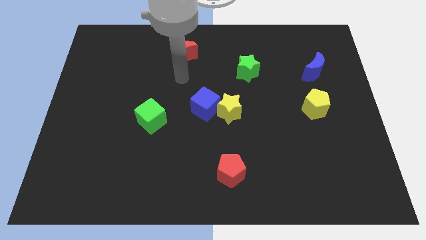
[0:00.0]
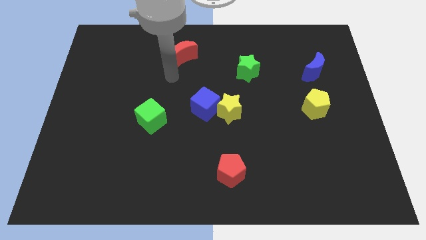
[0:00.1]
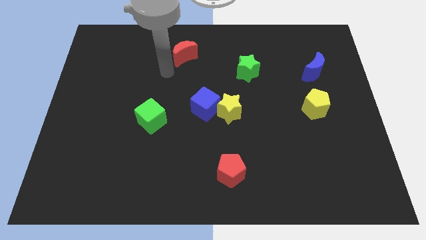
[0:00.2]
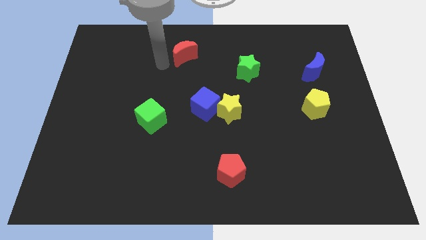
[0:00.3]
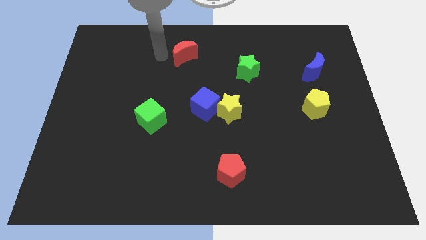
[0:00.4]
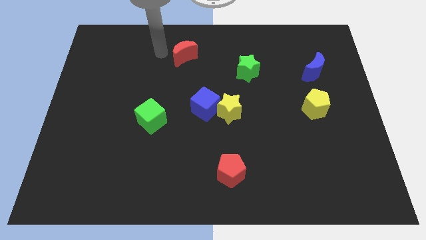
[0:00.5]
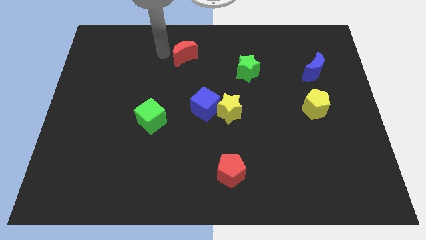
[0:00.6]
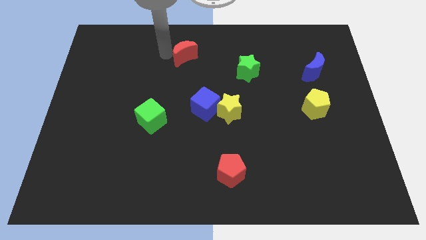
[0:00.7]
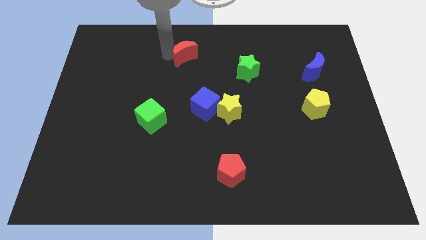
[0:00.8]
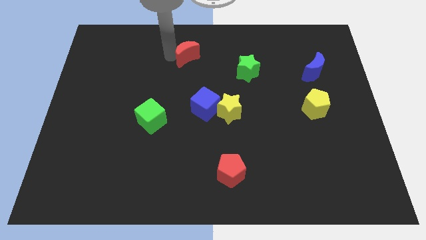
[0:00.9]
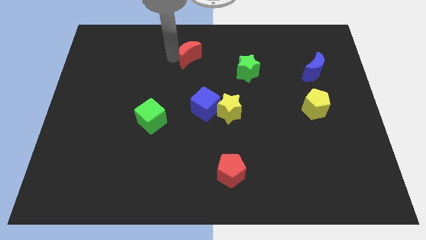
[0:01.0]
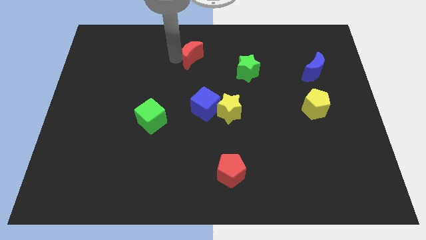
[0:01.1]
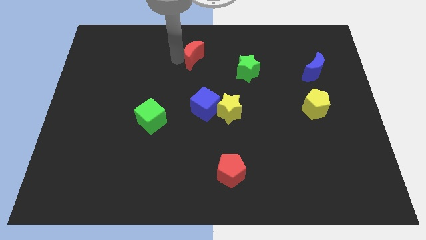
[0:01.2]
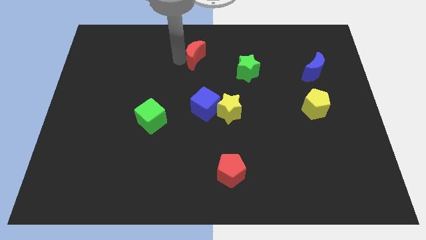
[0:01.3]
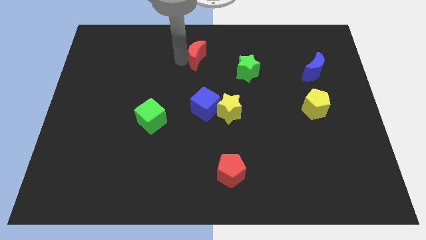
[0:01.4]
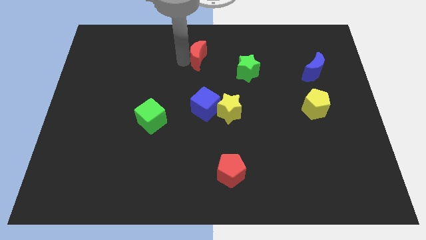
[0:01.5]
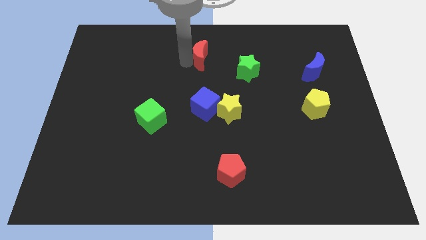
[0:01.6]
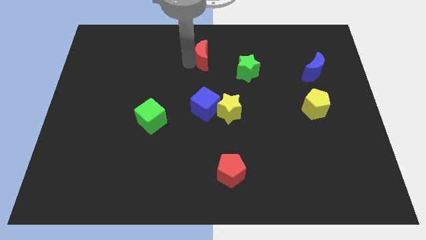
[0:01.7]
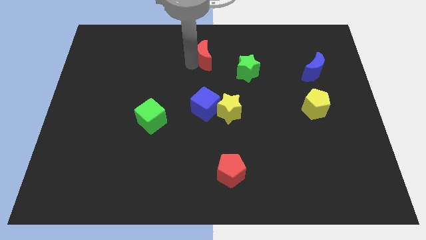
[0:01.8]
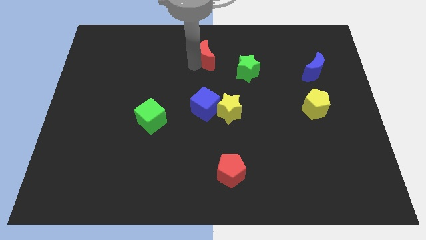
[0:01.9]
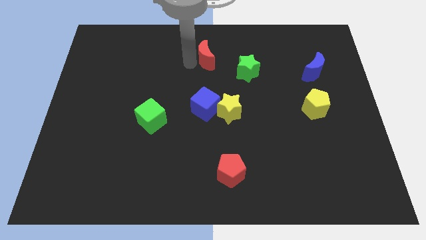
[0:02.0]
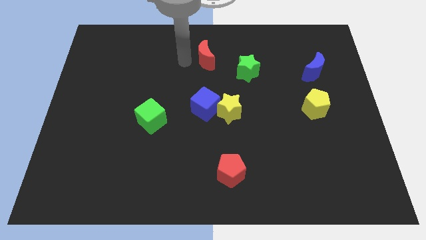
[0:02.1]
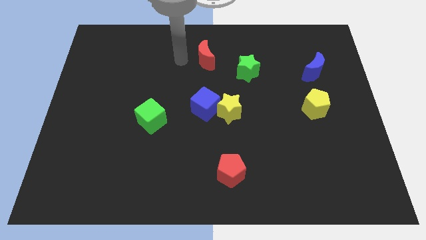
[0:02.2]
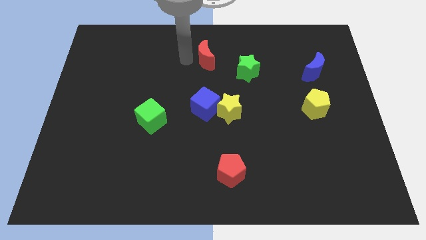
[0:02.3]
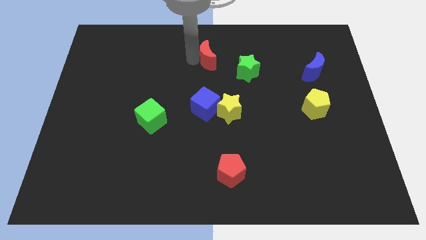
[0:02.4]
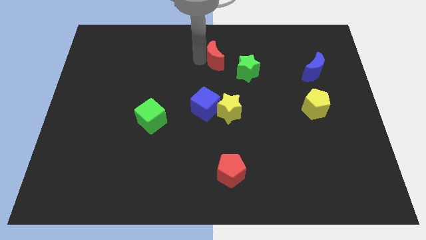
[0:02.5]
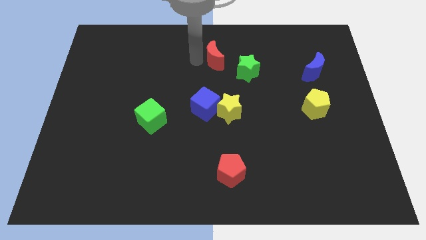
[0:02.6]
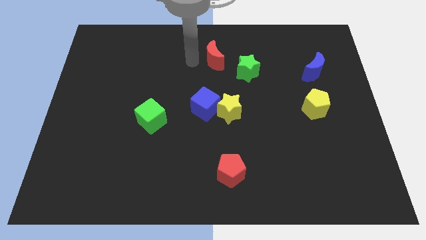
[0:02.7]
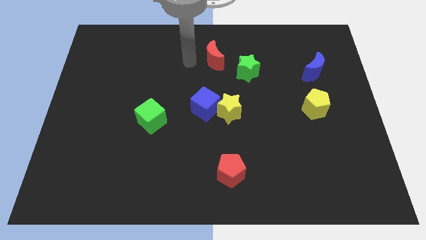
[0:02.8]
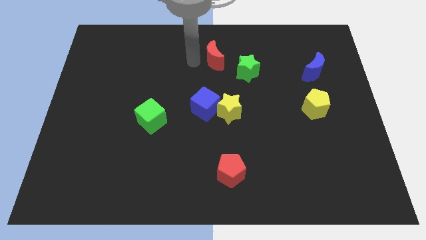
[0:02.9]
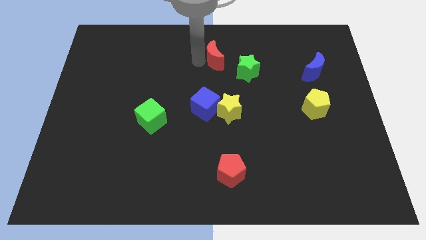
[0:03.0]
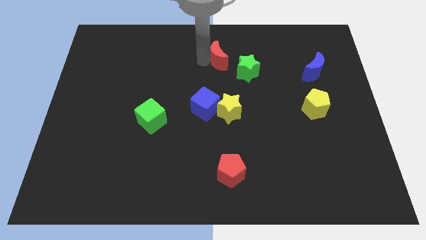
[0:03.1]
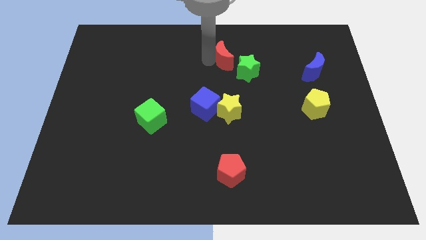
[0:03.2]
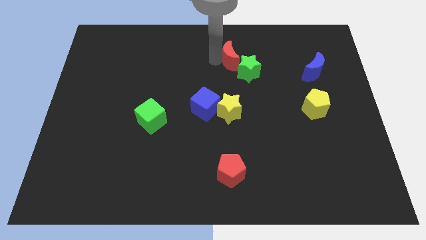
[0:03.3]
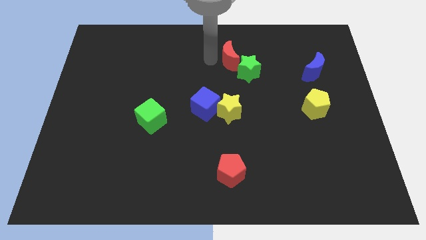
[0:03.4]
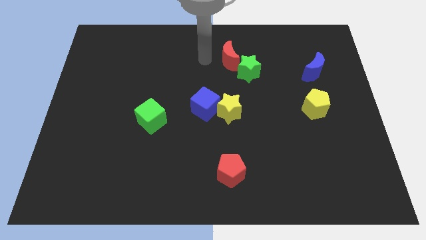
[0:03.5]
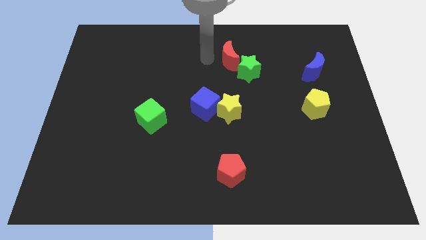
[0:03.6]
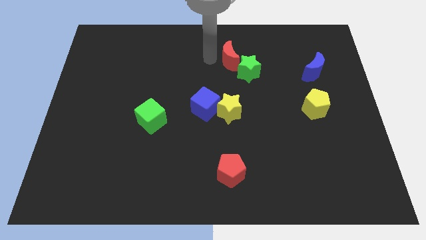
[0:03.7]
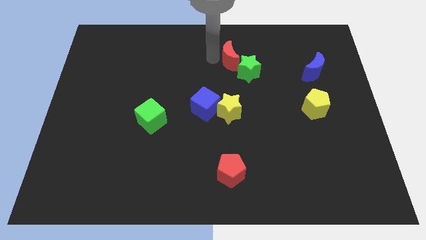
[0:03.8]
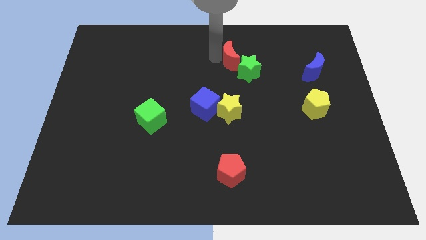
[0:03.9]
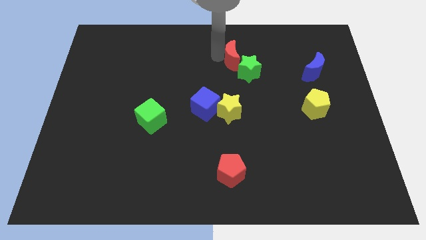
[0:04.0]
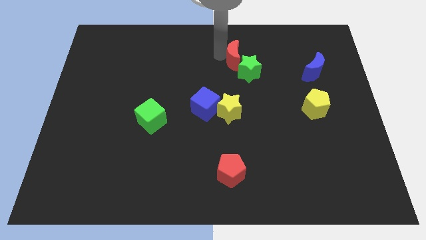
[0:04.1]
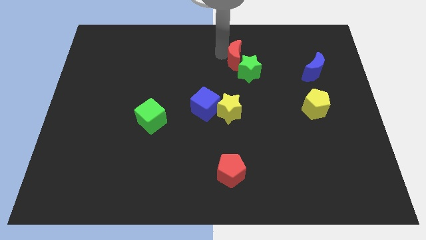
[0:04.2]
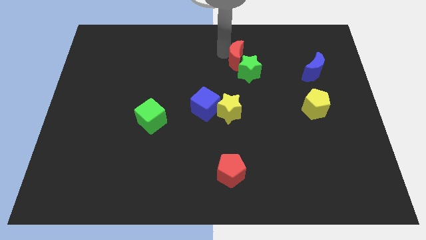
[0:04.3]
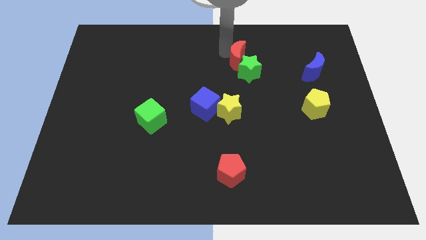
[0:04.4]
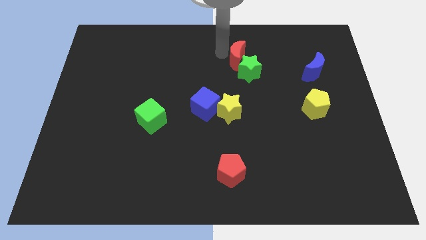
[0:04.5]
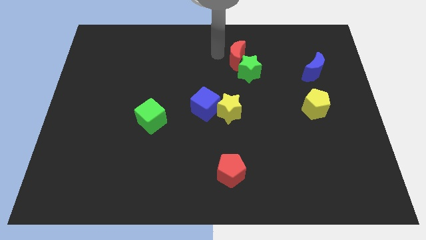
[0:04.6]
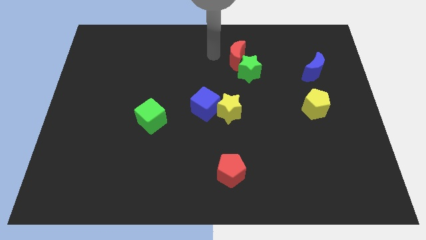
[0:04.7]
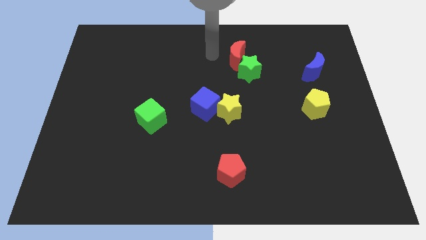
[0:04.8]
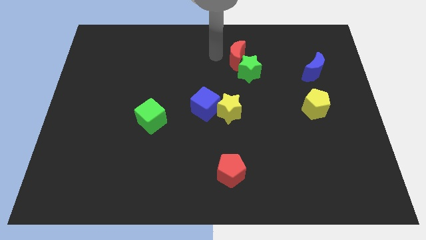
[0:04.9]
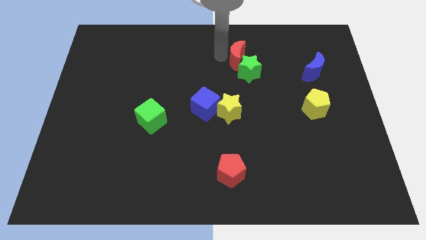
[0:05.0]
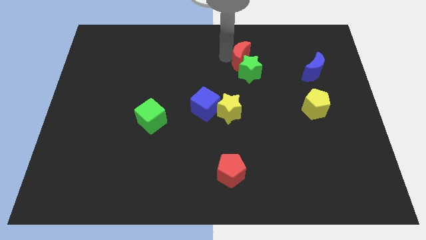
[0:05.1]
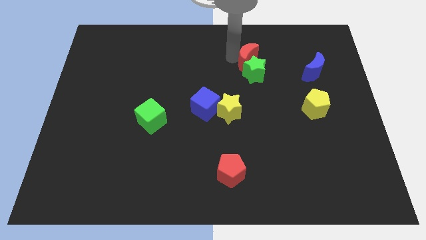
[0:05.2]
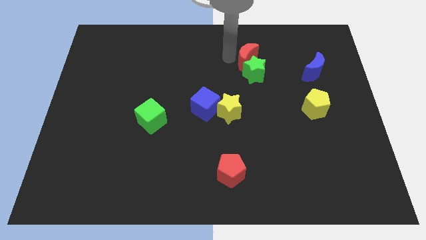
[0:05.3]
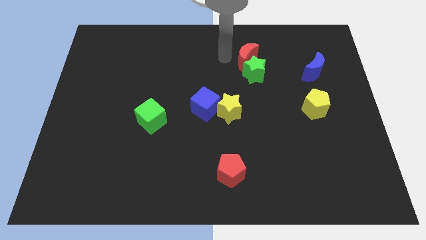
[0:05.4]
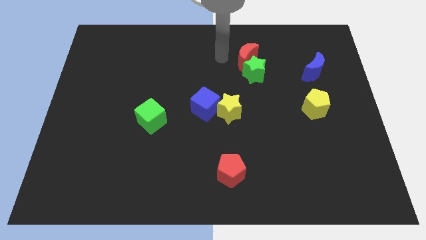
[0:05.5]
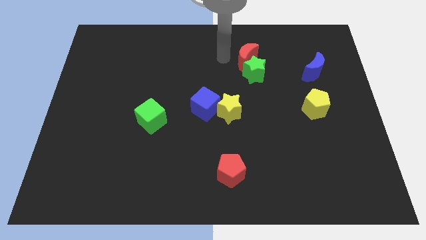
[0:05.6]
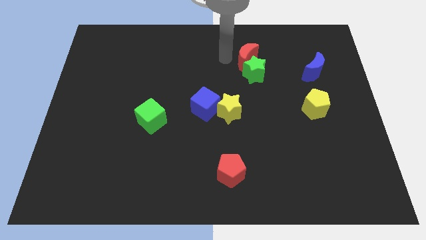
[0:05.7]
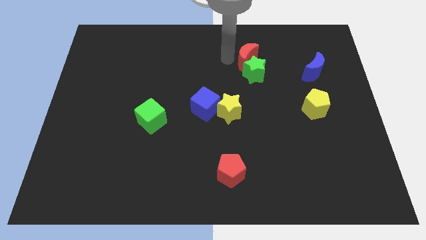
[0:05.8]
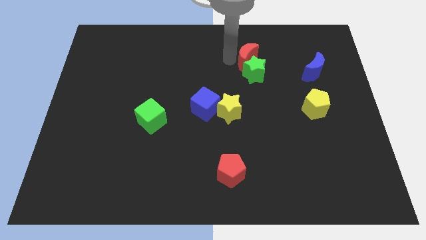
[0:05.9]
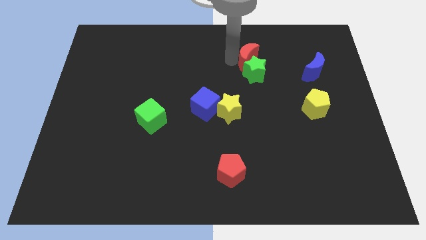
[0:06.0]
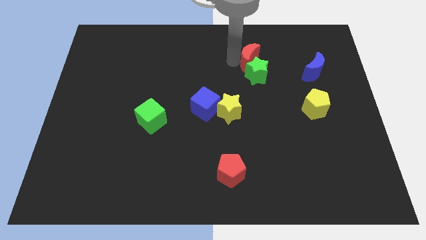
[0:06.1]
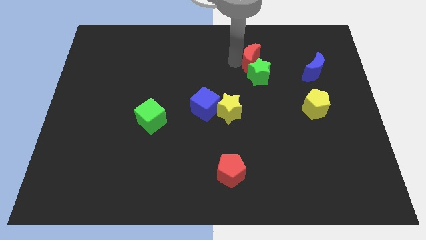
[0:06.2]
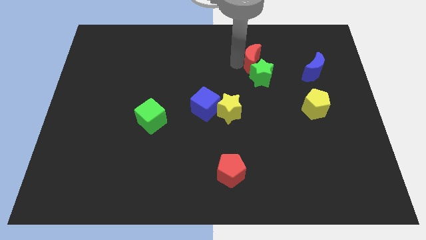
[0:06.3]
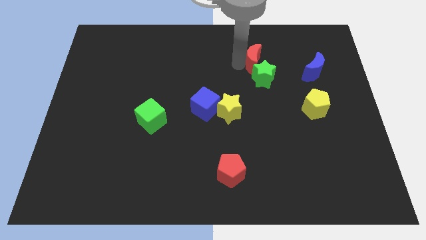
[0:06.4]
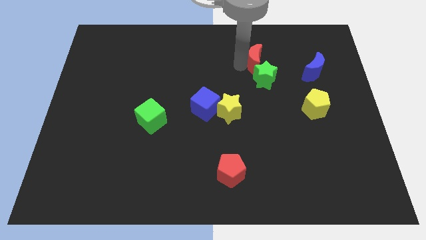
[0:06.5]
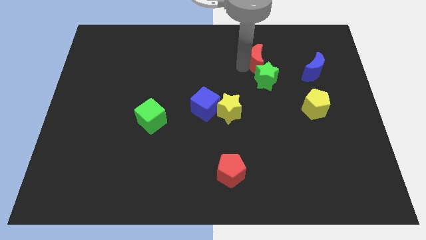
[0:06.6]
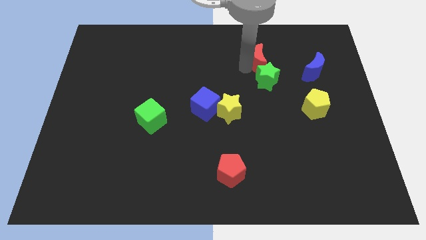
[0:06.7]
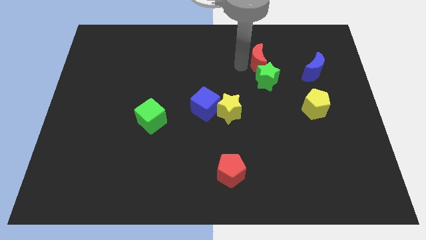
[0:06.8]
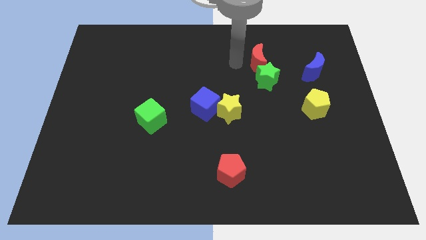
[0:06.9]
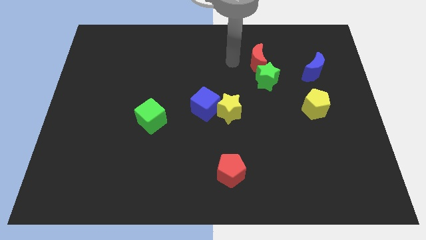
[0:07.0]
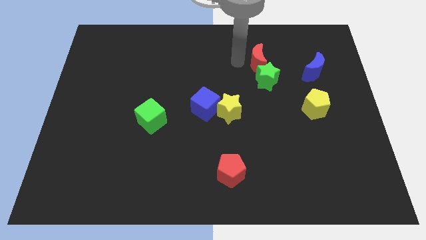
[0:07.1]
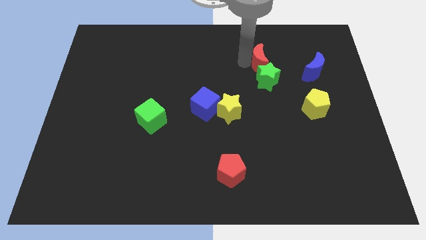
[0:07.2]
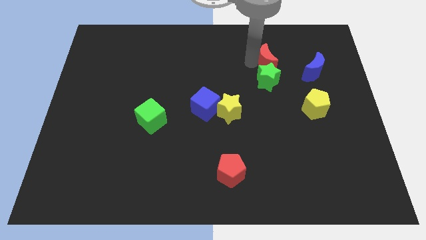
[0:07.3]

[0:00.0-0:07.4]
push the red moon right

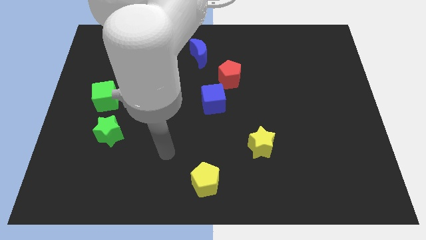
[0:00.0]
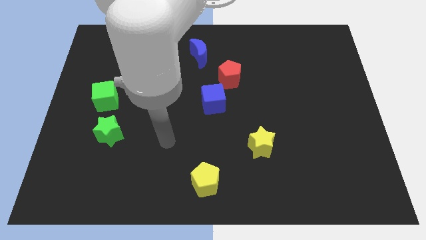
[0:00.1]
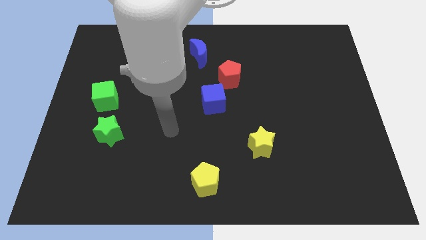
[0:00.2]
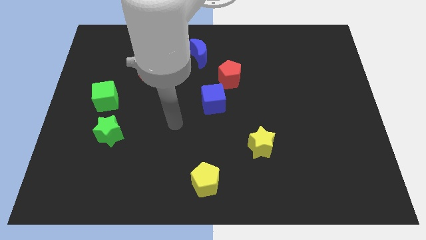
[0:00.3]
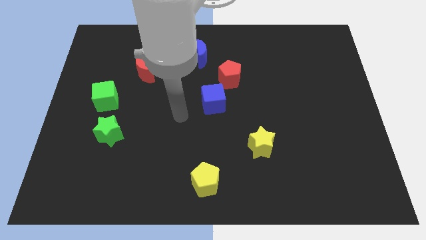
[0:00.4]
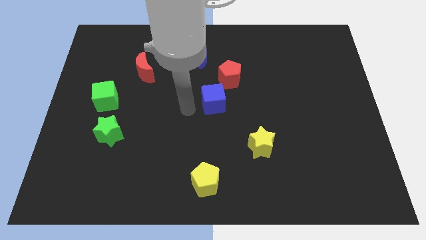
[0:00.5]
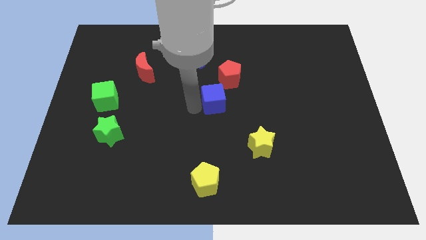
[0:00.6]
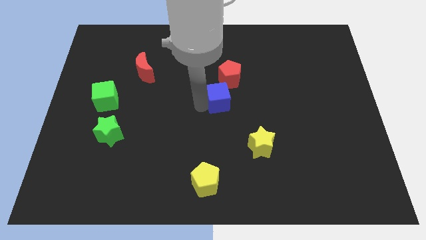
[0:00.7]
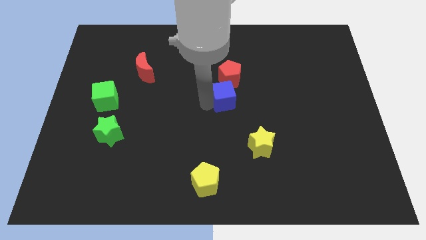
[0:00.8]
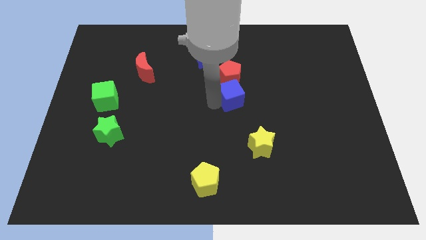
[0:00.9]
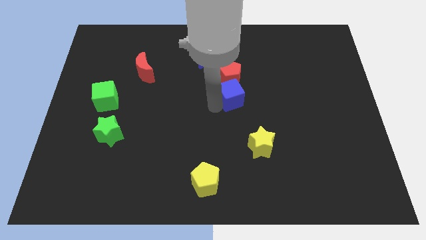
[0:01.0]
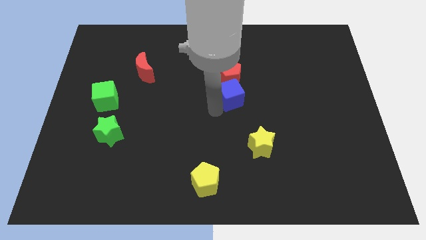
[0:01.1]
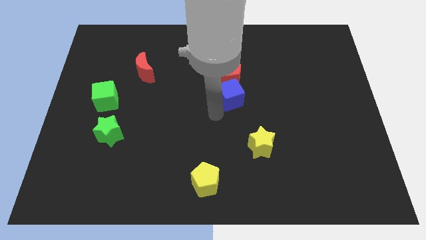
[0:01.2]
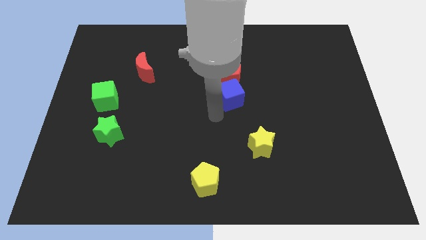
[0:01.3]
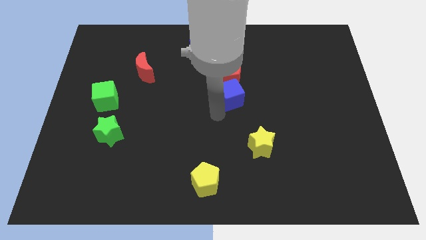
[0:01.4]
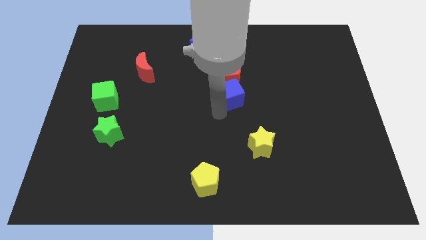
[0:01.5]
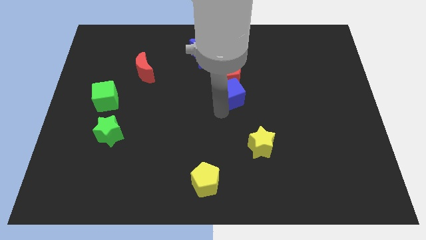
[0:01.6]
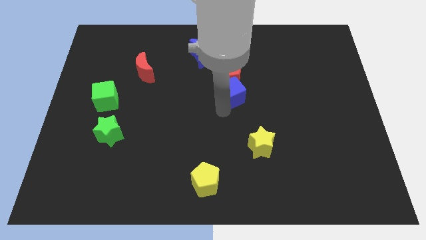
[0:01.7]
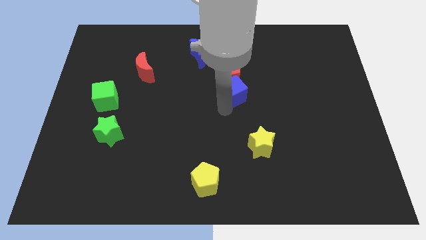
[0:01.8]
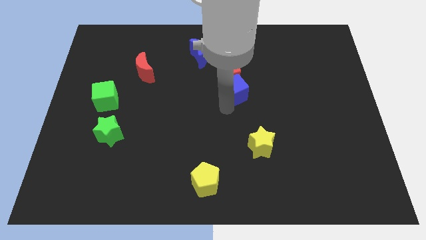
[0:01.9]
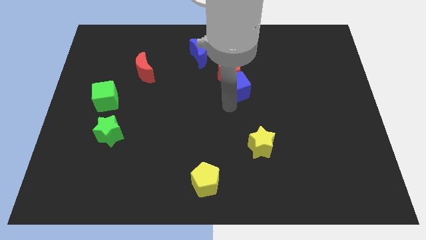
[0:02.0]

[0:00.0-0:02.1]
slightly move the blue cube diagonally upwards and right
